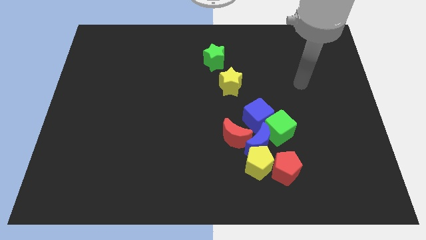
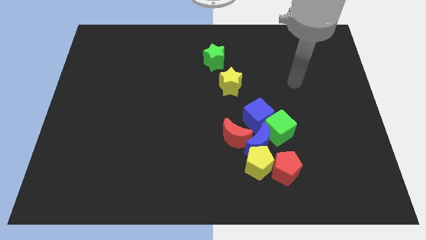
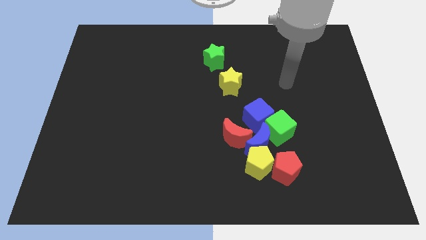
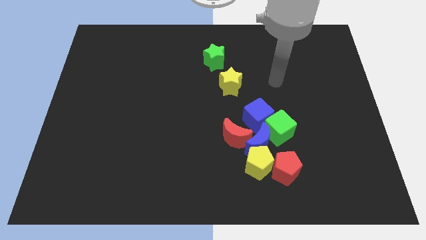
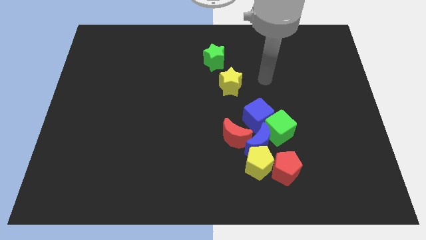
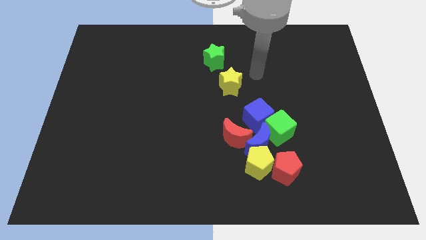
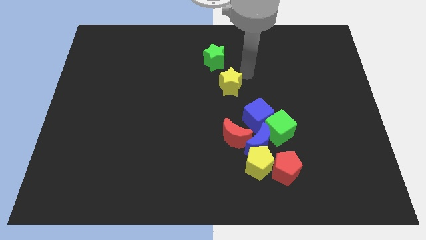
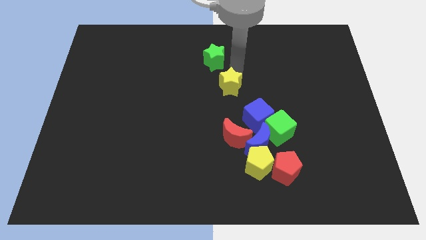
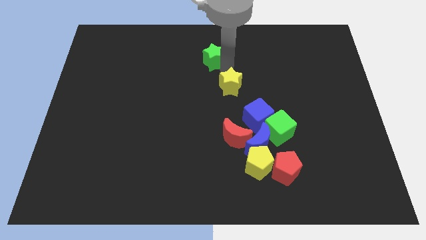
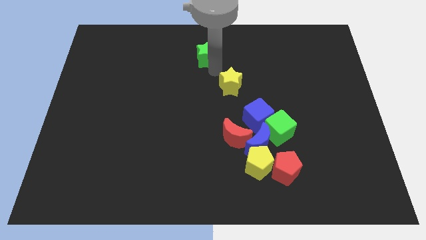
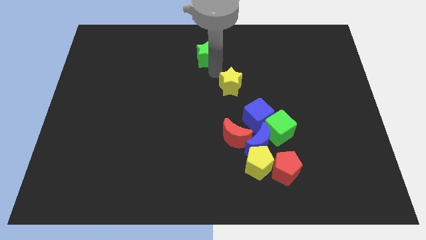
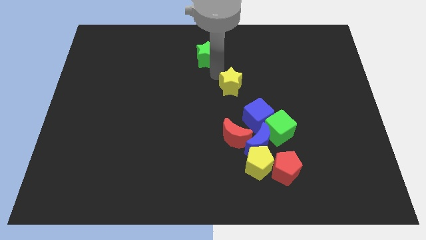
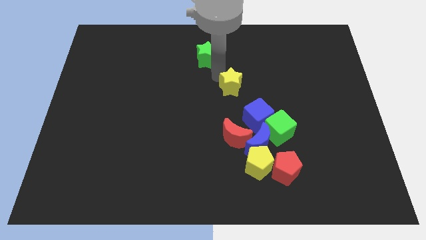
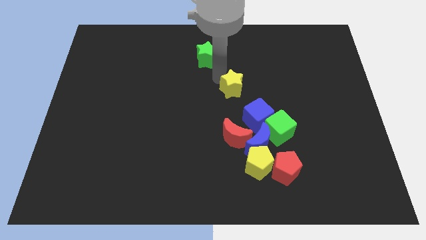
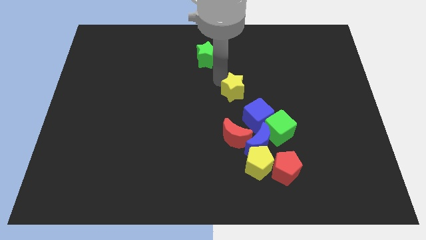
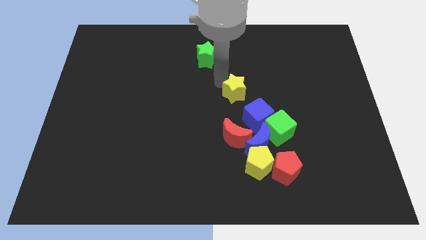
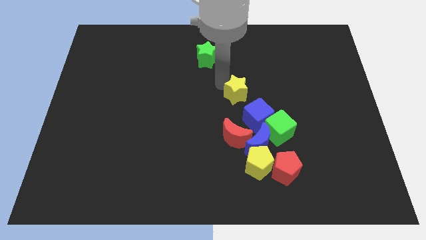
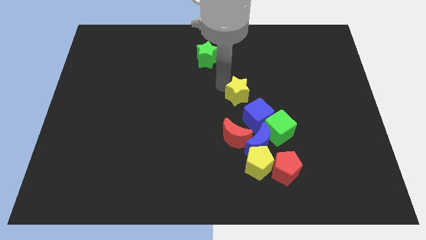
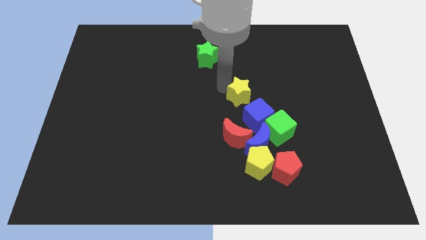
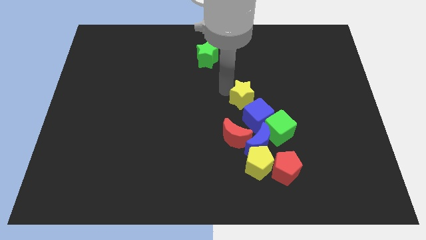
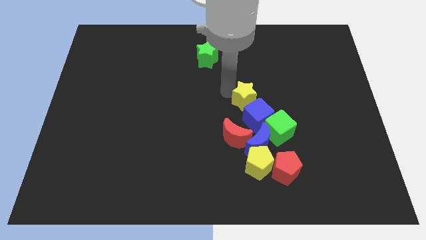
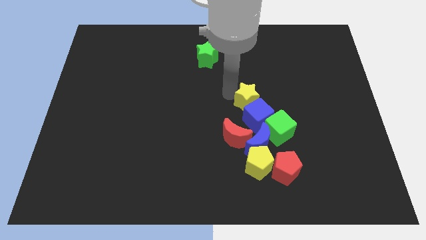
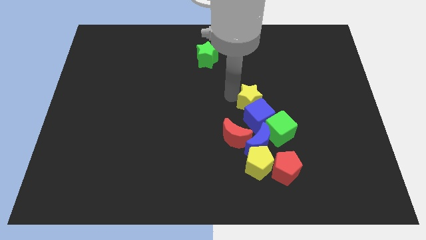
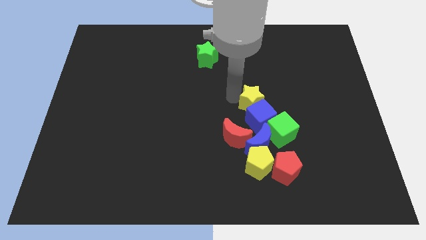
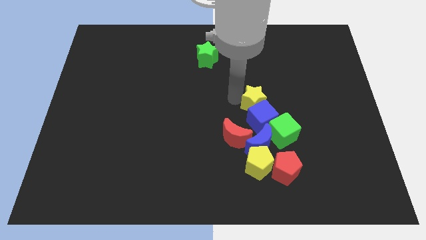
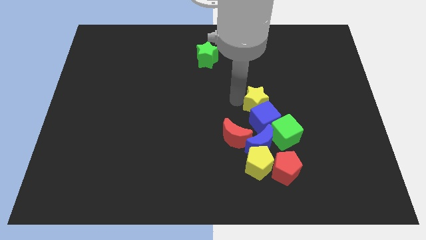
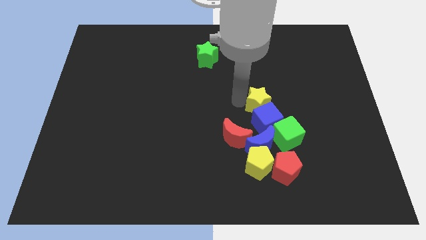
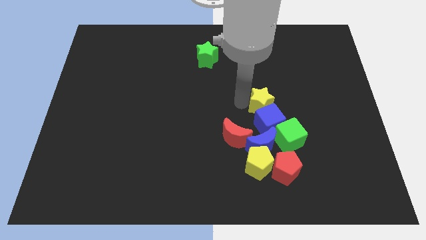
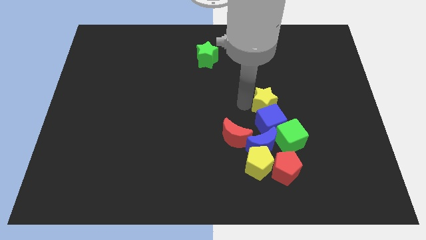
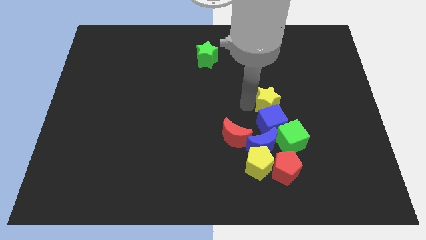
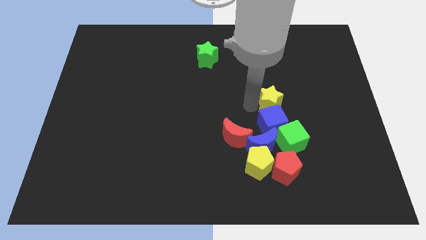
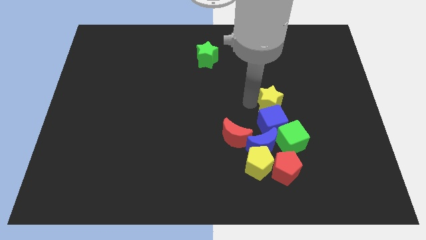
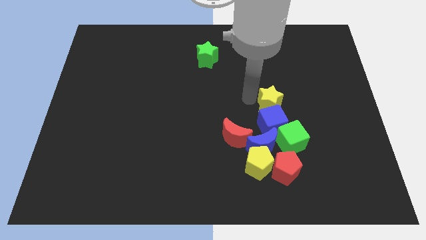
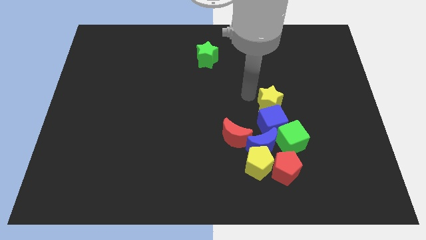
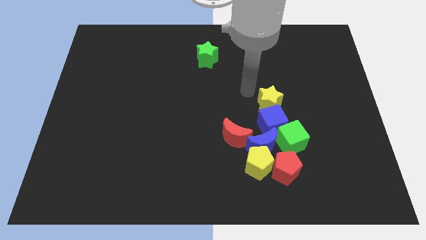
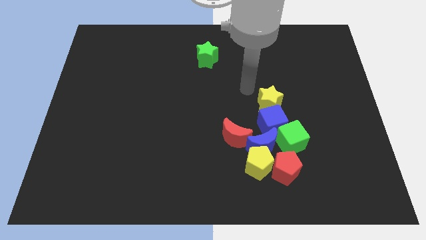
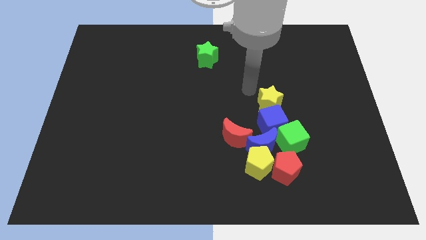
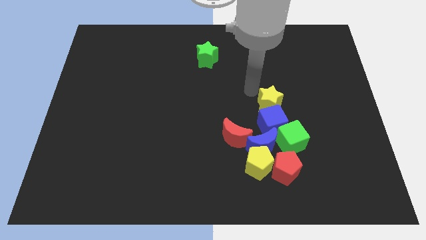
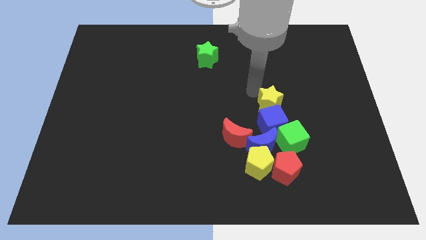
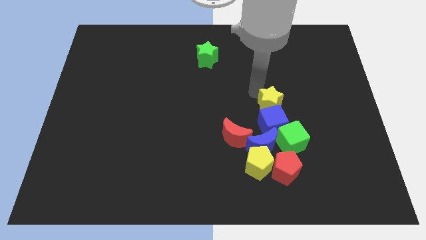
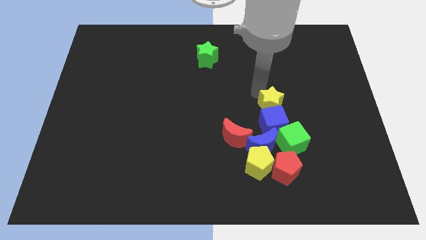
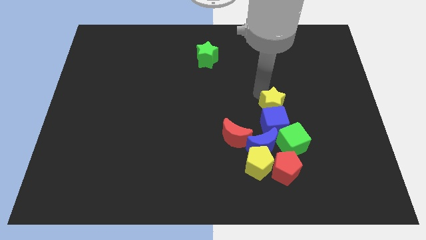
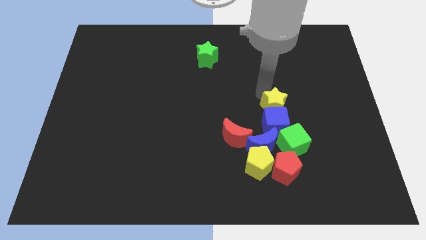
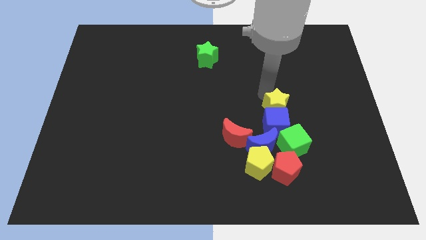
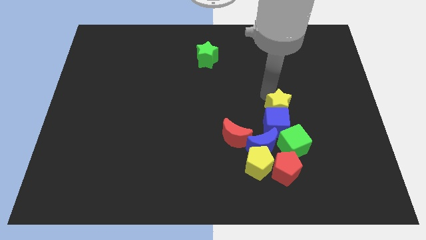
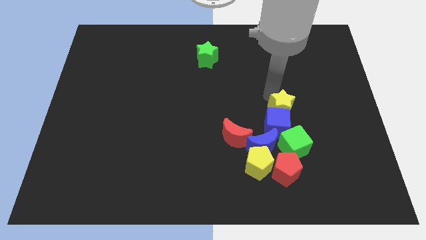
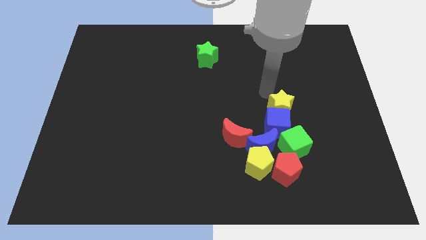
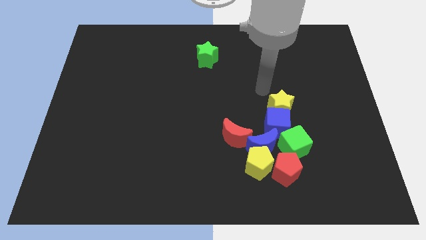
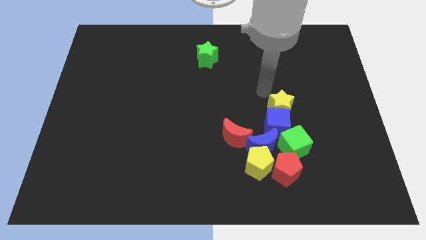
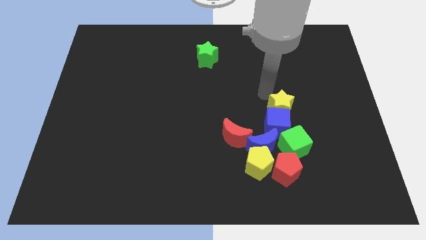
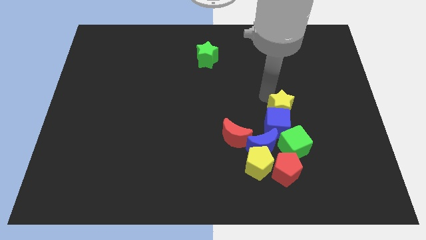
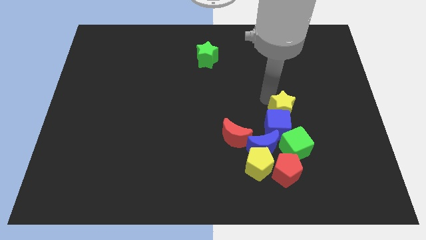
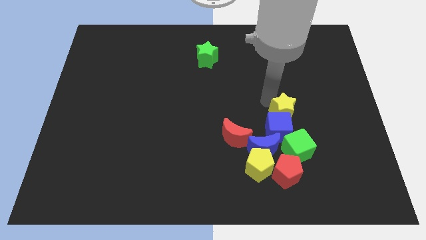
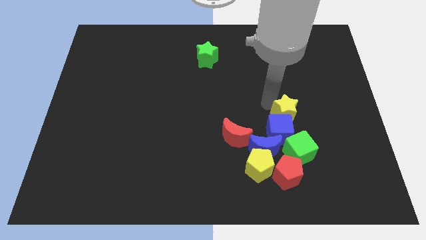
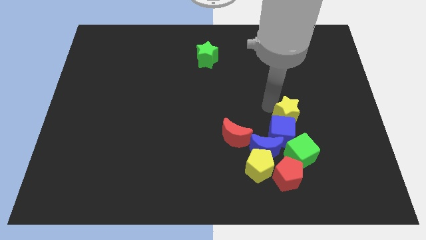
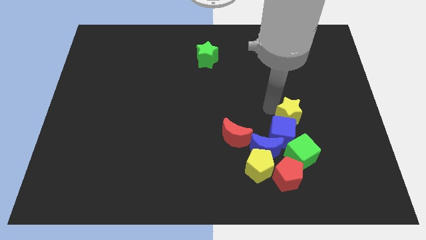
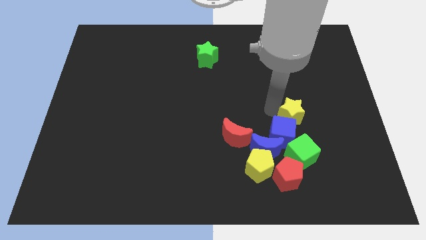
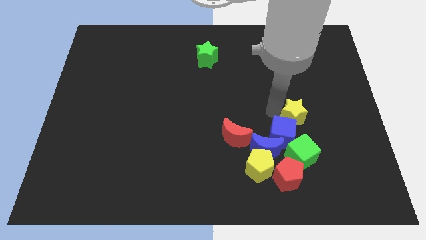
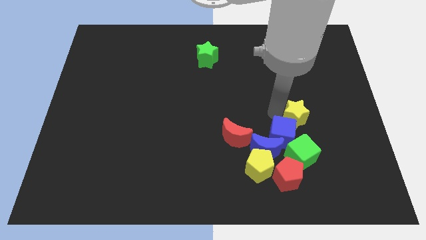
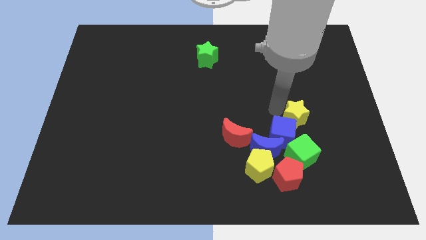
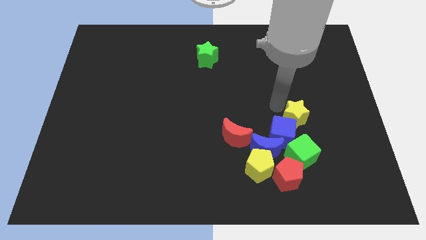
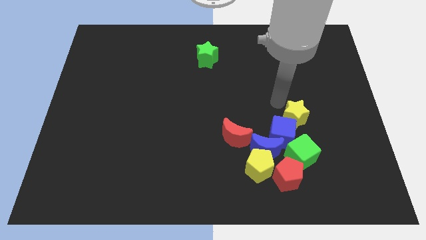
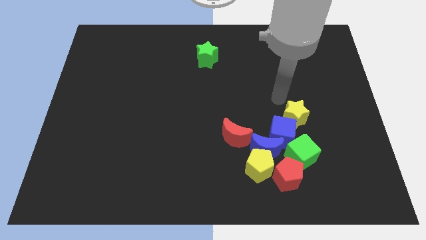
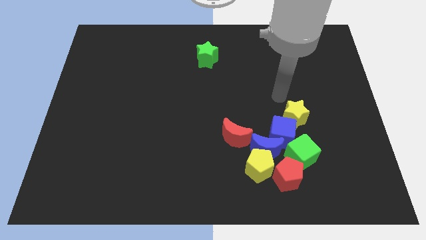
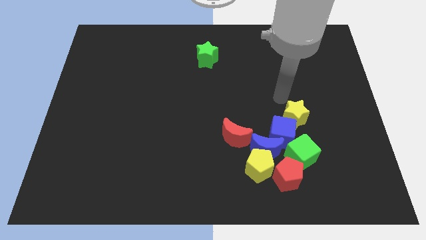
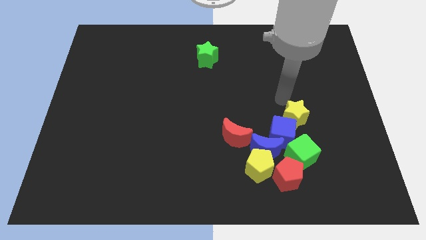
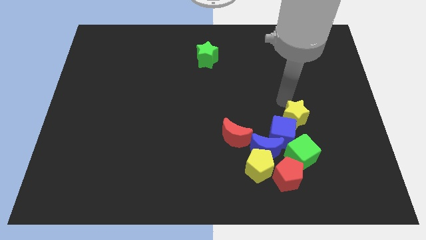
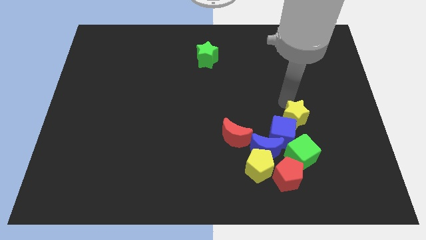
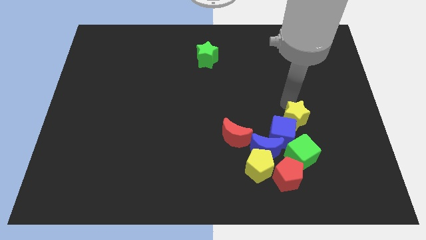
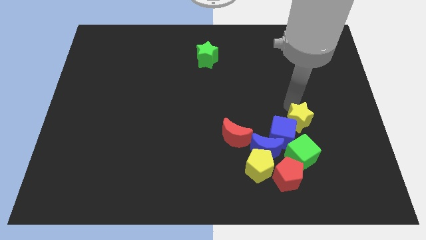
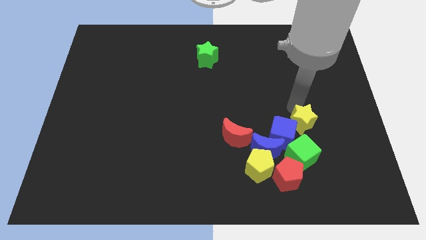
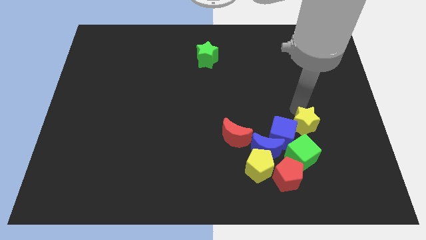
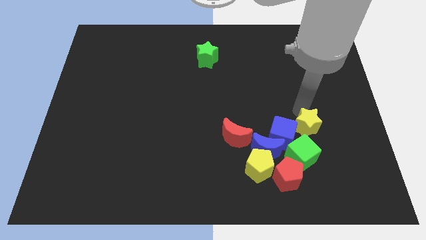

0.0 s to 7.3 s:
move the yellow star downwards and then right

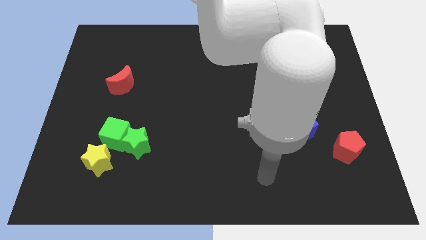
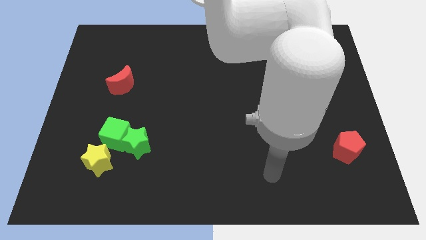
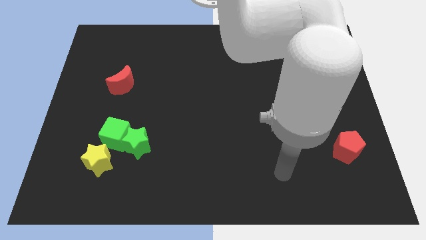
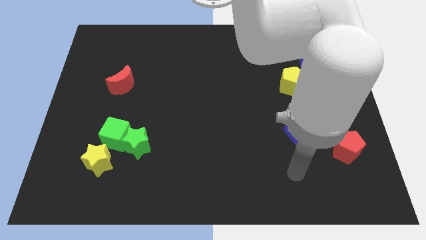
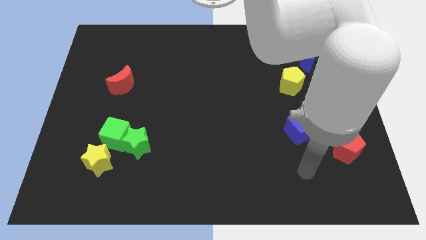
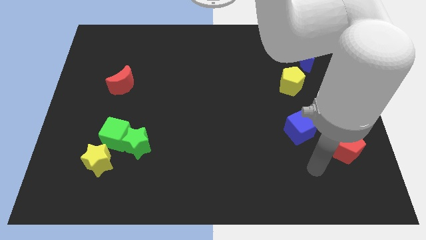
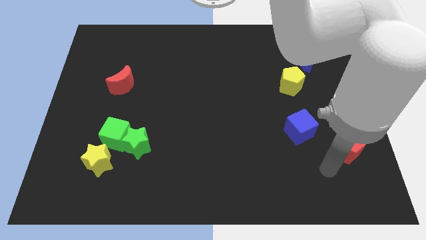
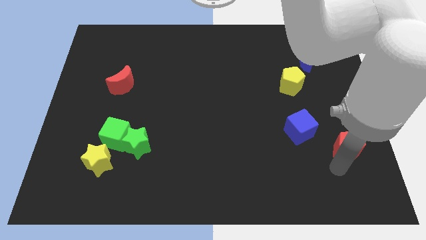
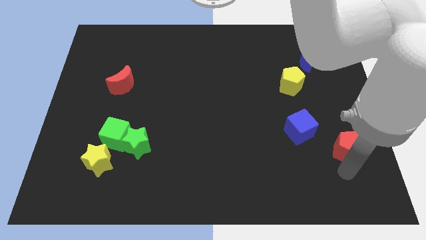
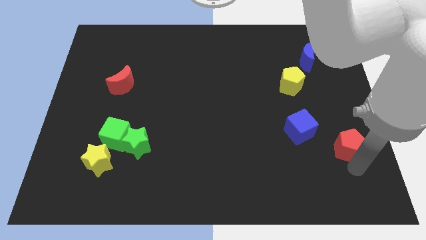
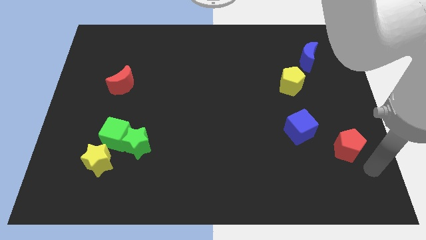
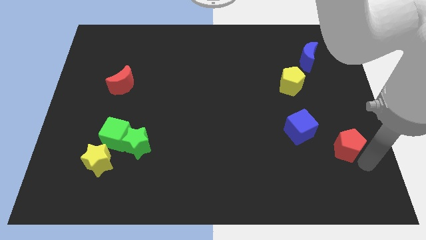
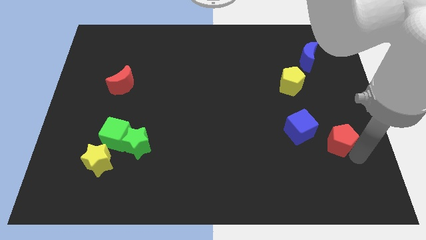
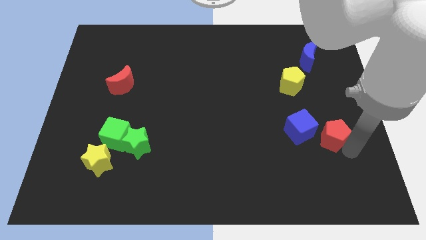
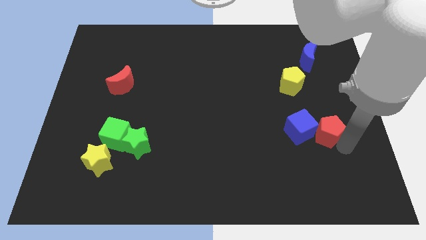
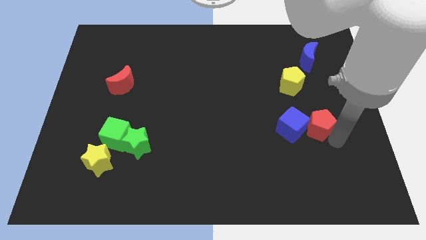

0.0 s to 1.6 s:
slightly slide the red pentagon up and then to the left
